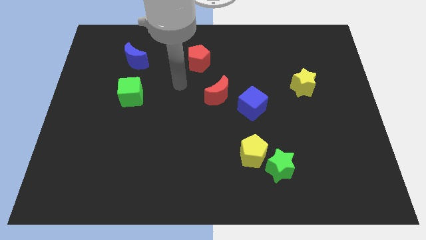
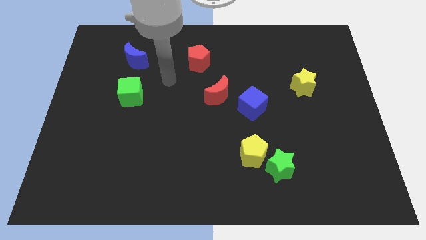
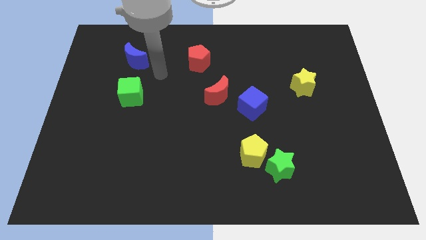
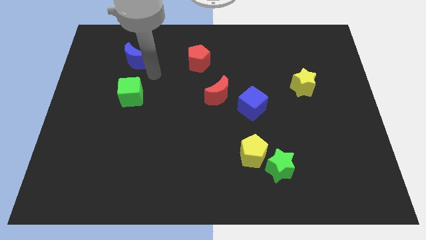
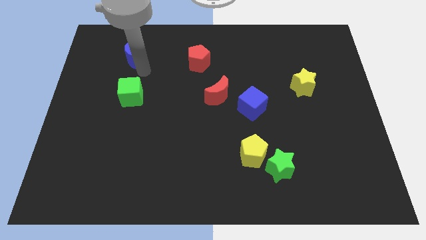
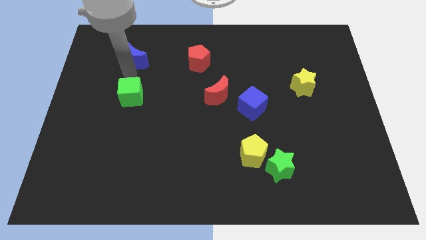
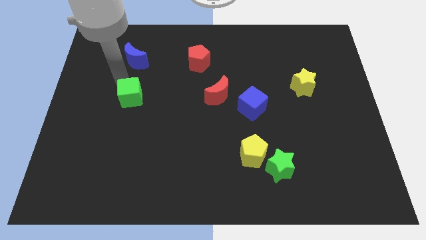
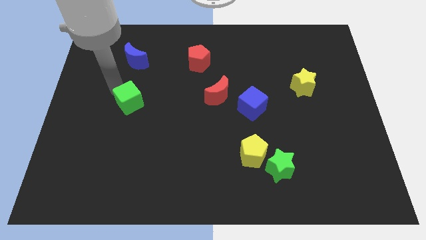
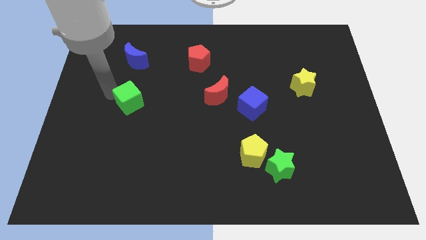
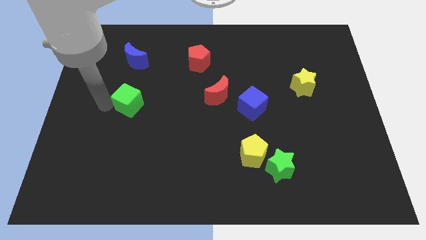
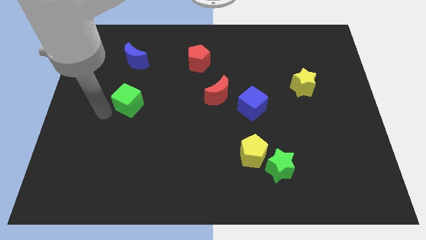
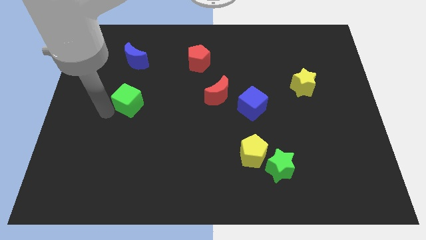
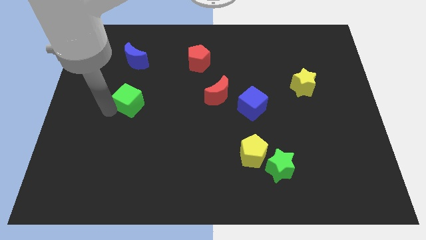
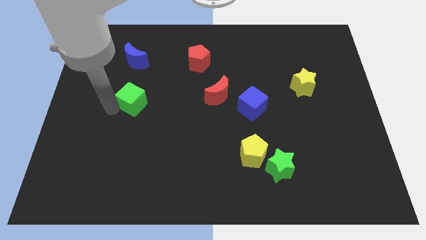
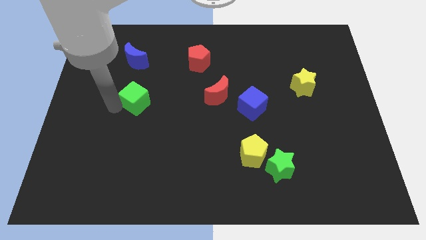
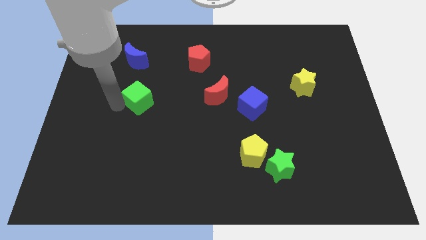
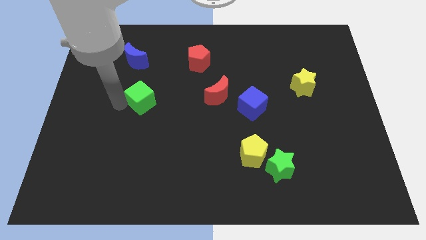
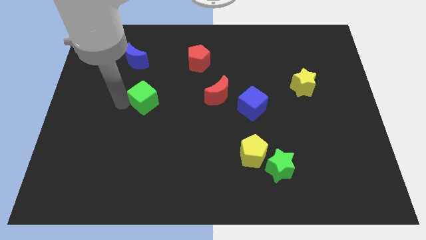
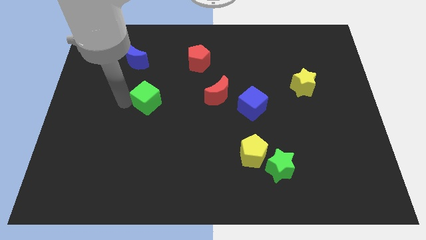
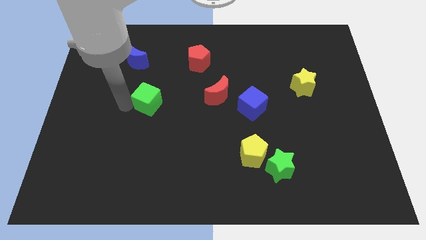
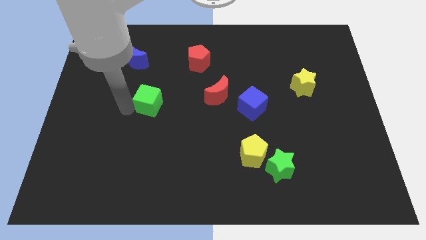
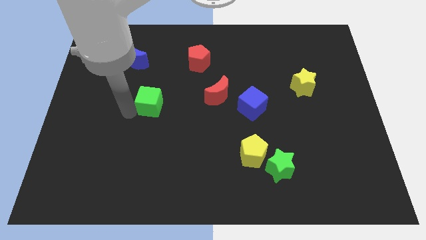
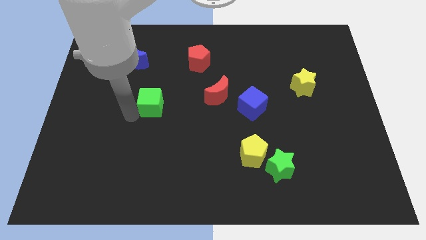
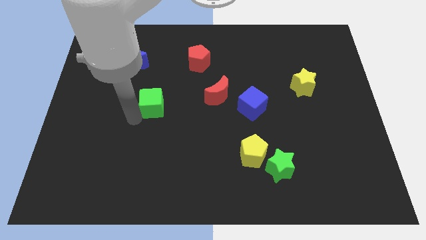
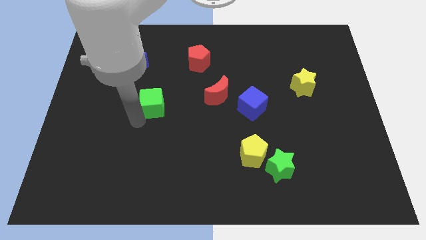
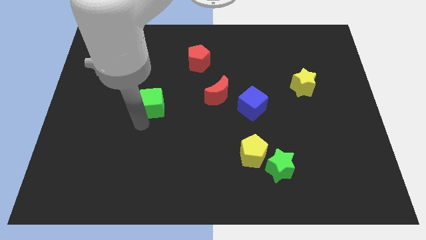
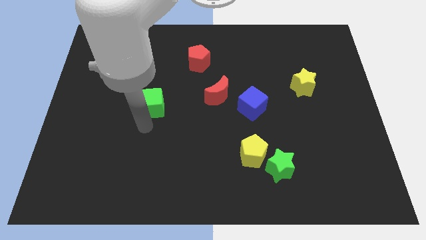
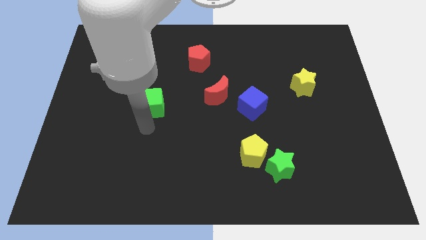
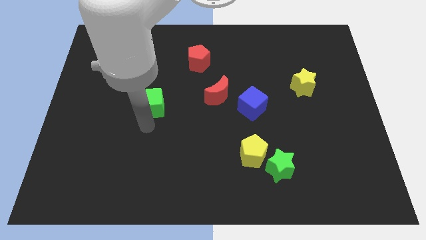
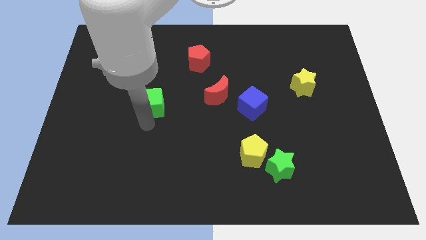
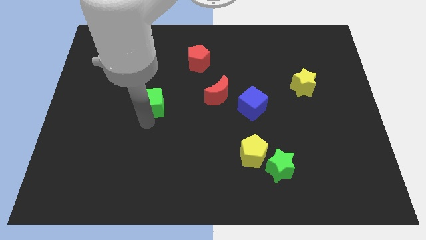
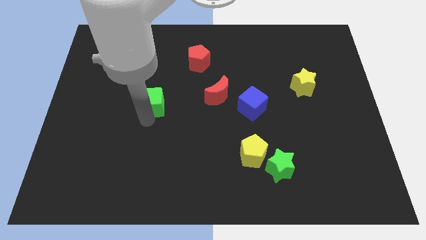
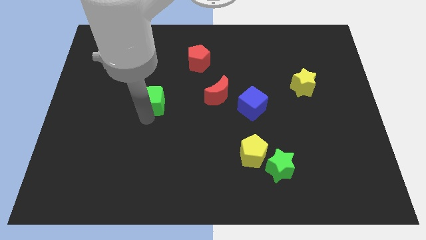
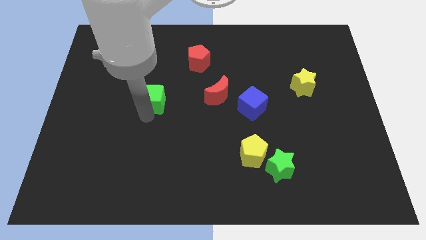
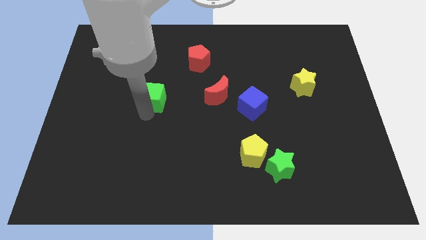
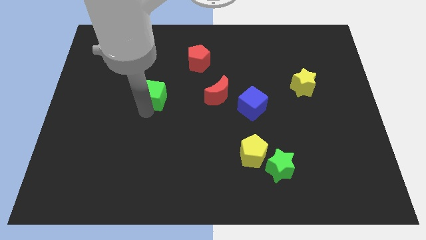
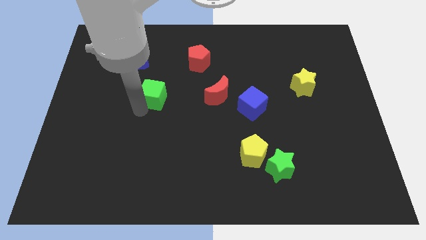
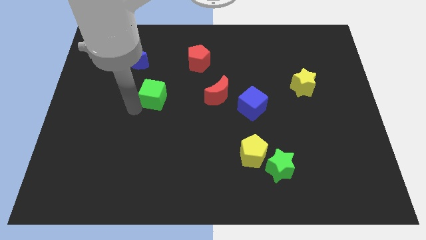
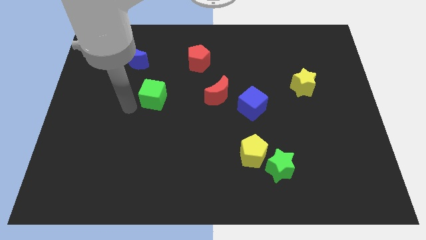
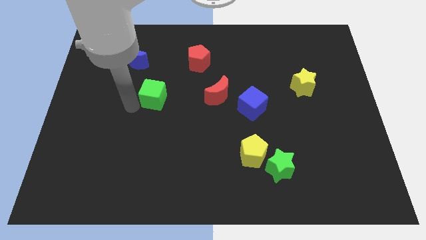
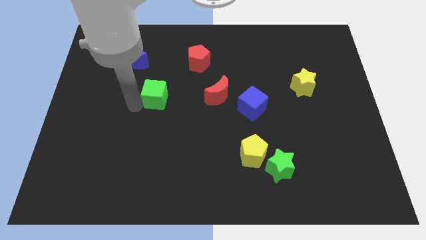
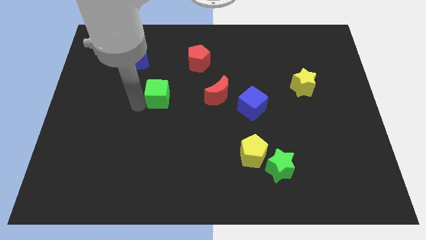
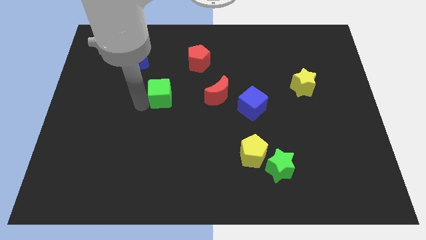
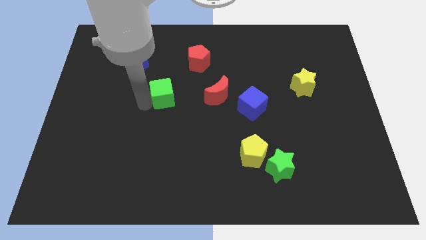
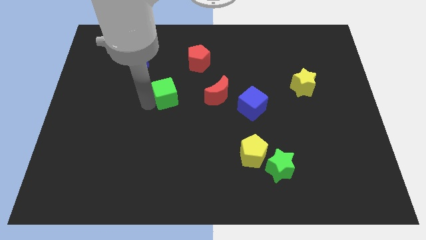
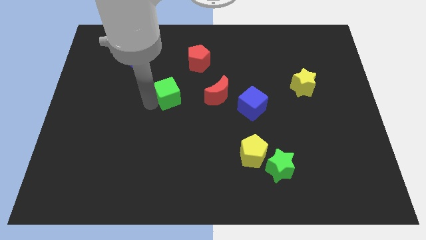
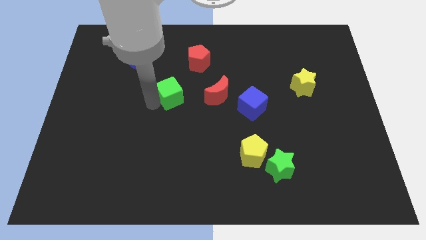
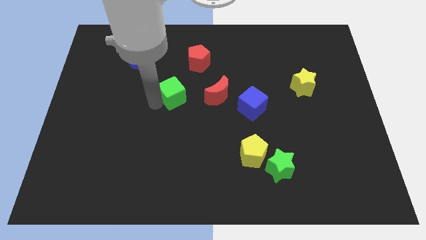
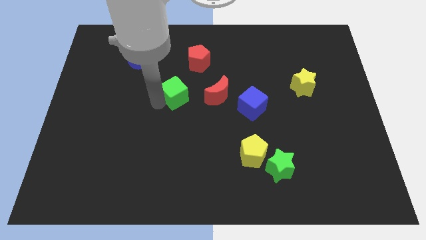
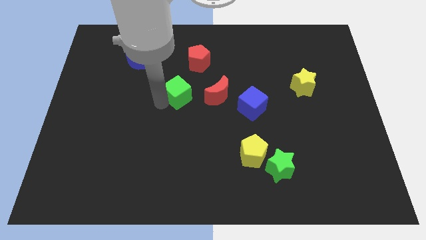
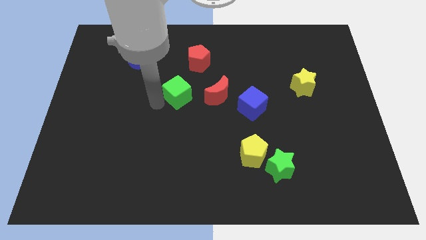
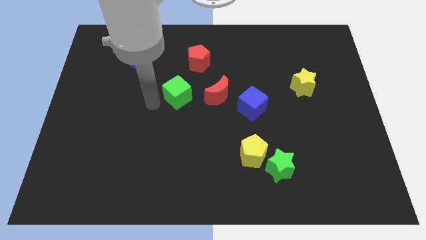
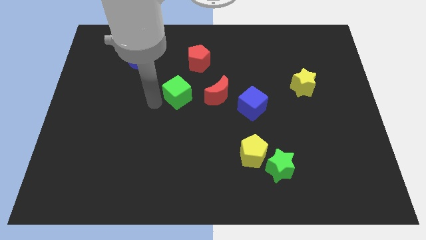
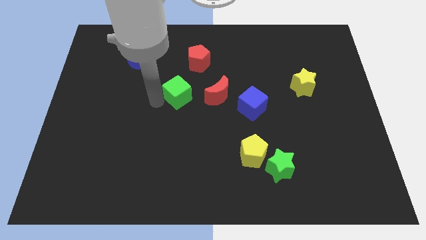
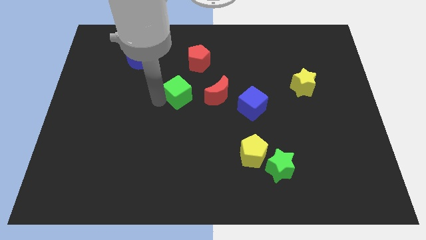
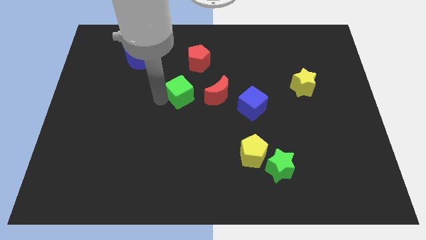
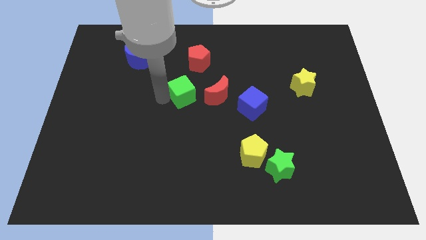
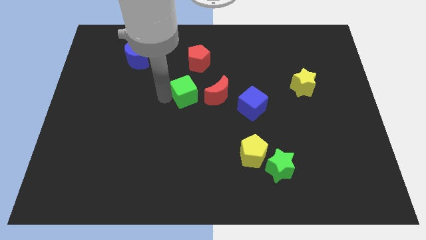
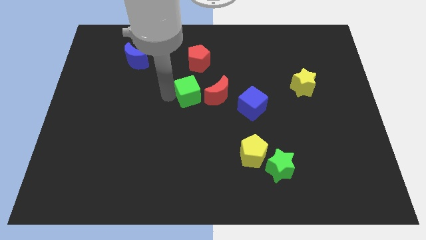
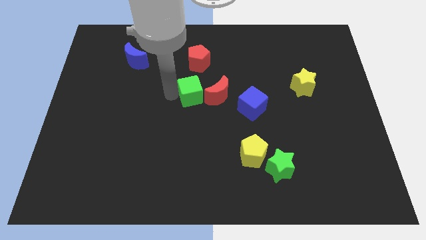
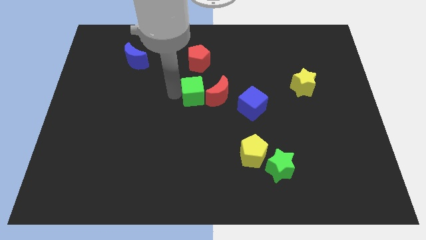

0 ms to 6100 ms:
move the green cube close to the red moon

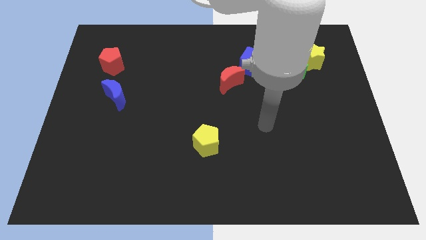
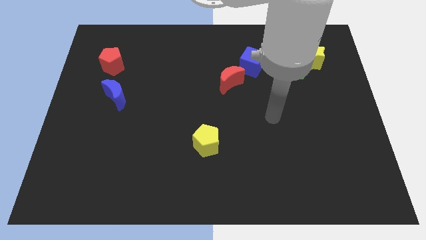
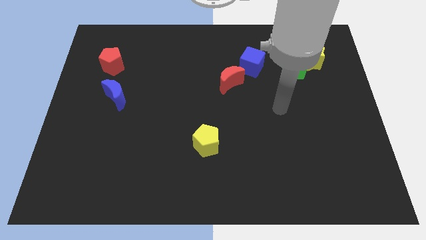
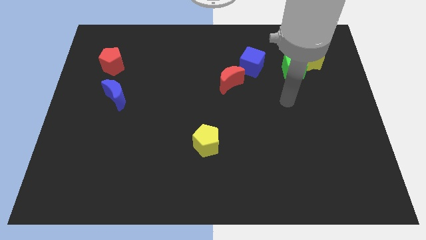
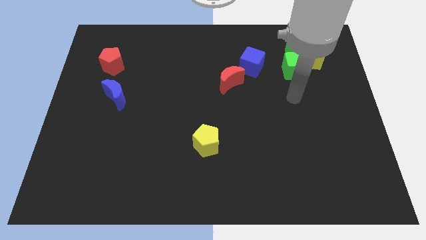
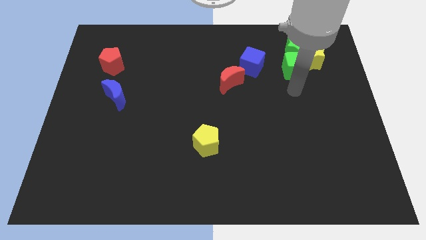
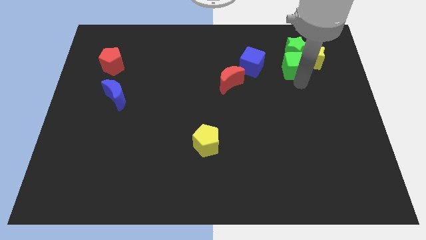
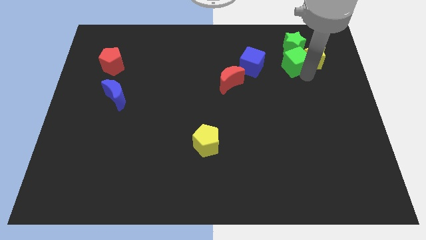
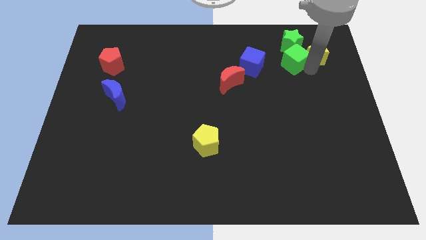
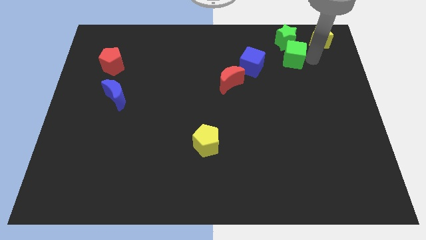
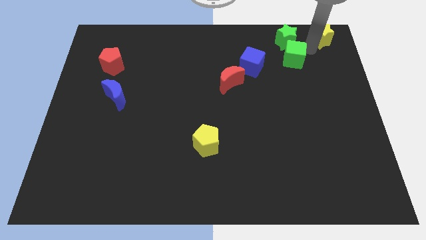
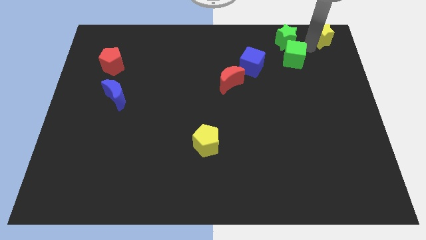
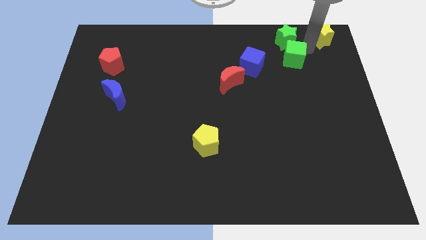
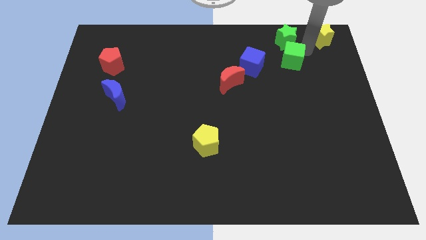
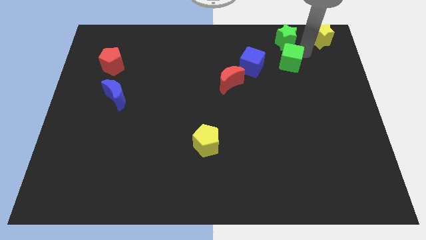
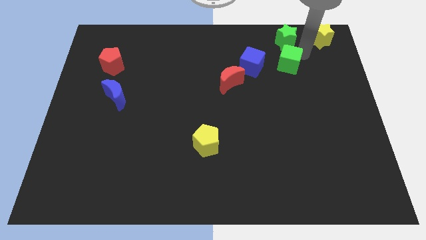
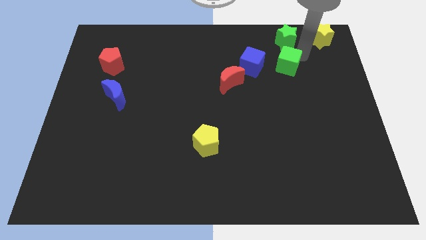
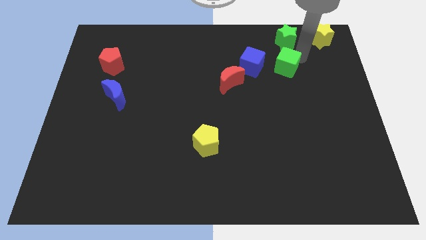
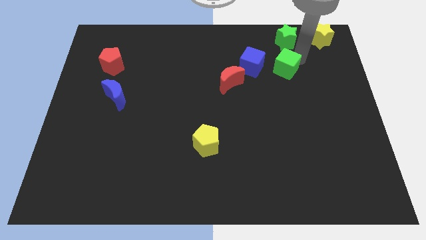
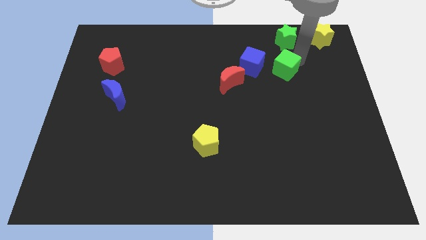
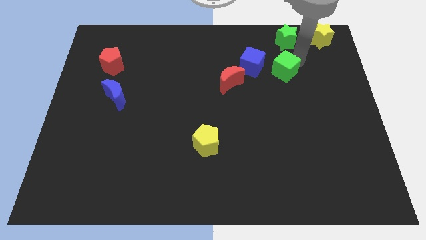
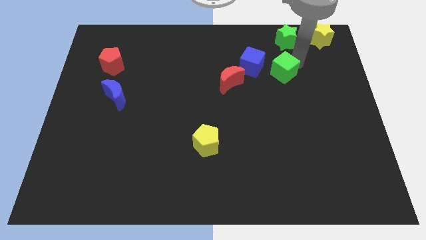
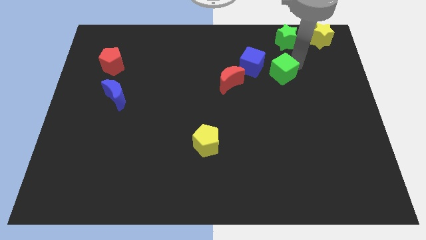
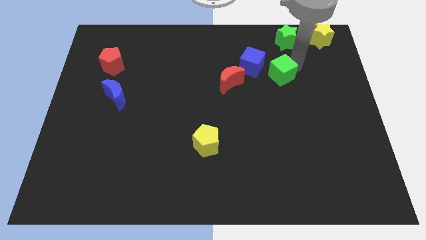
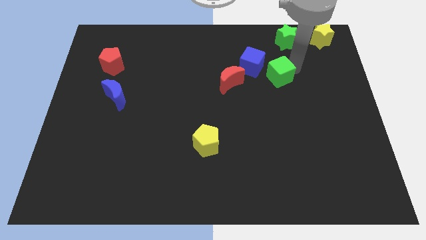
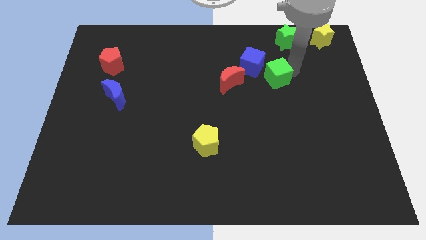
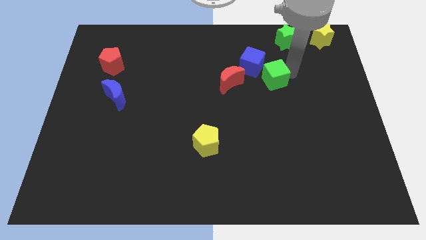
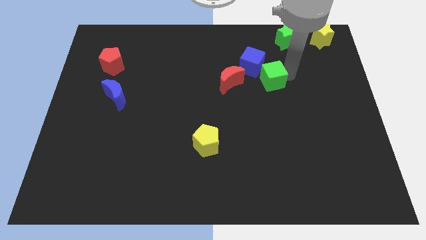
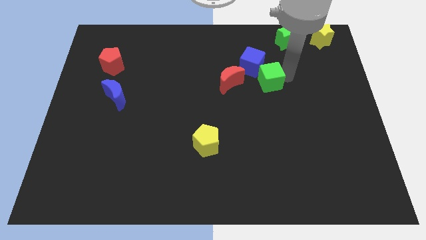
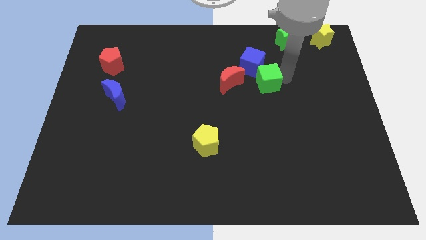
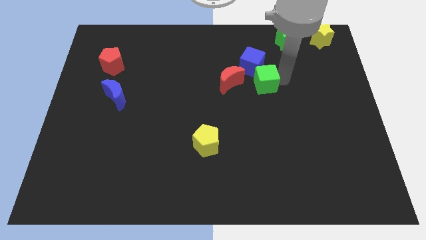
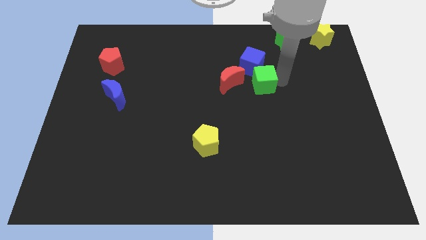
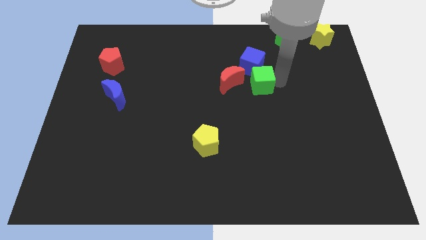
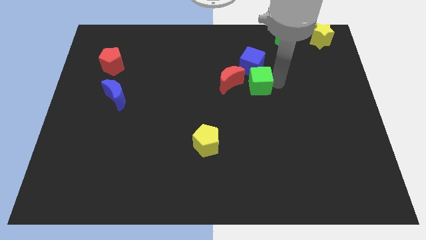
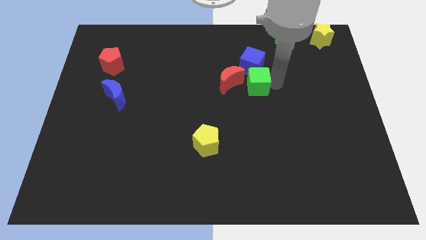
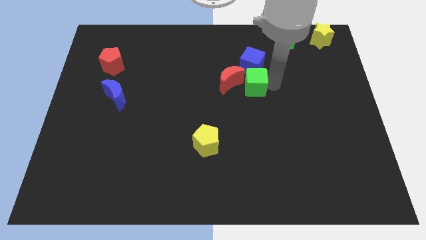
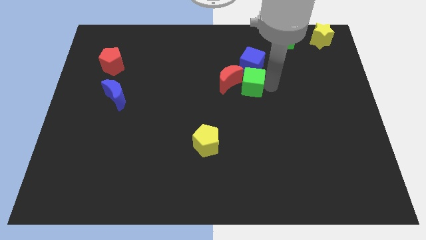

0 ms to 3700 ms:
move the green cube next to the red moon
